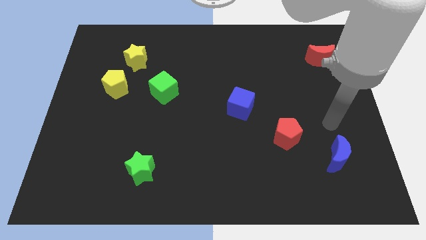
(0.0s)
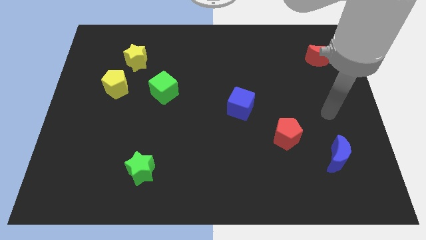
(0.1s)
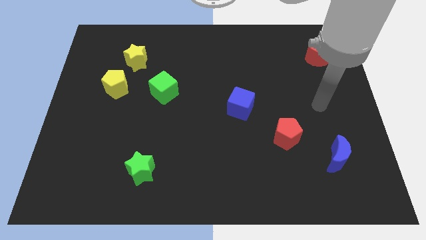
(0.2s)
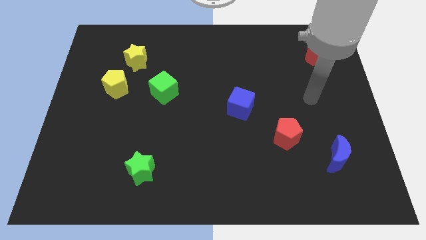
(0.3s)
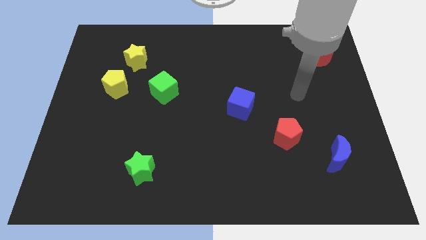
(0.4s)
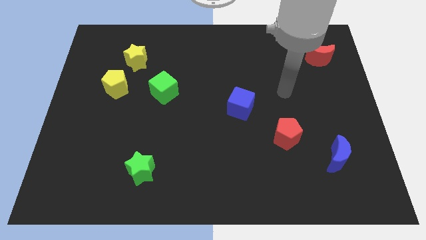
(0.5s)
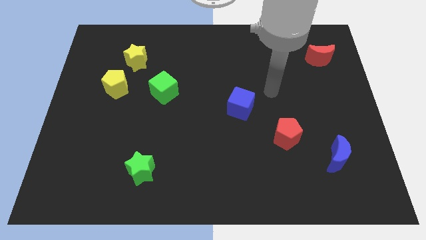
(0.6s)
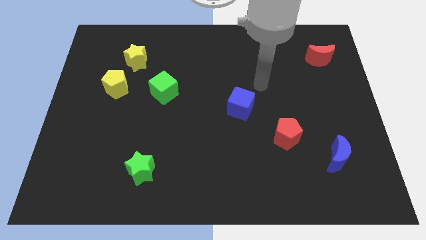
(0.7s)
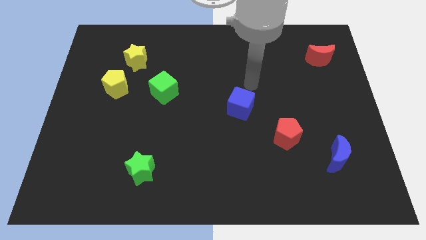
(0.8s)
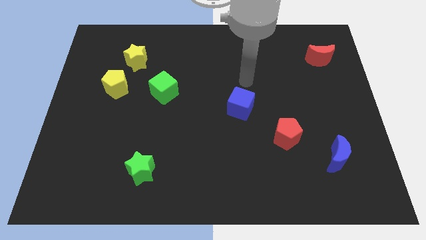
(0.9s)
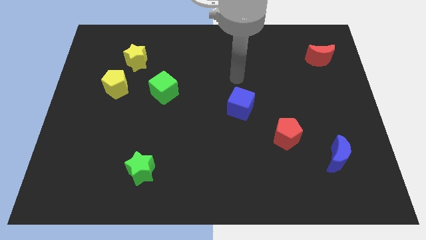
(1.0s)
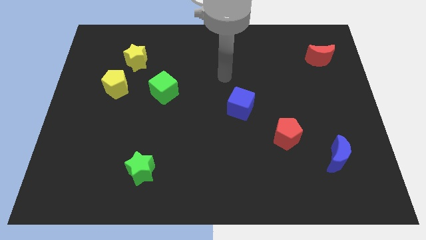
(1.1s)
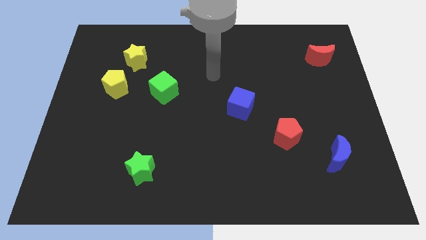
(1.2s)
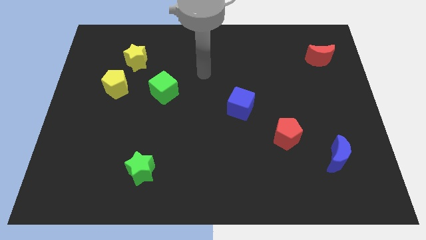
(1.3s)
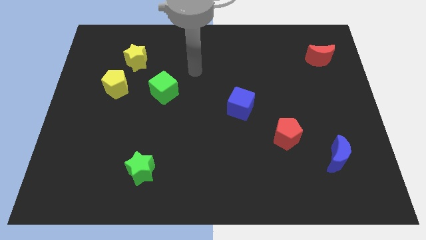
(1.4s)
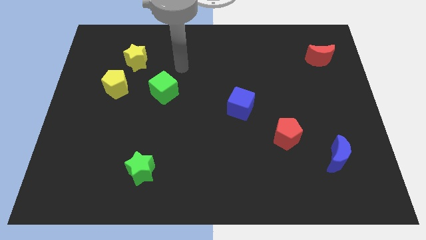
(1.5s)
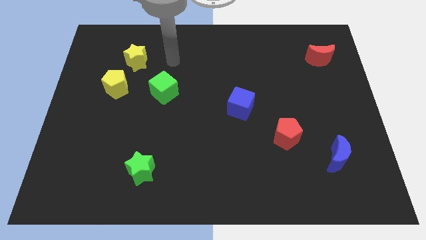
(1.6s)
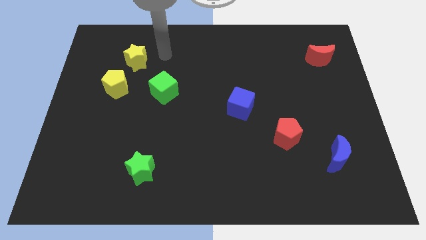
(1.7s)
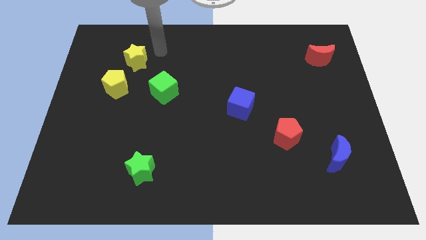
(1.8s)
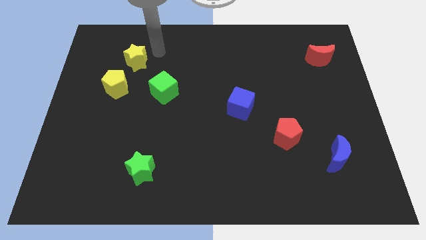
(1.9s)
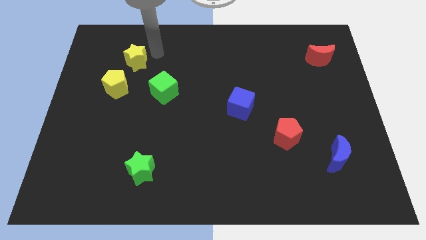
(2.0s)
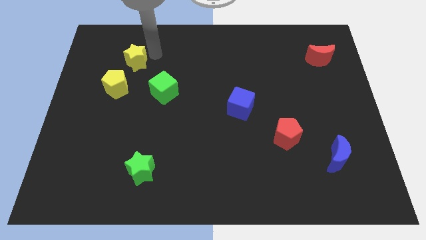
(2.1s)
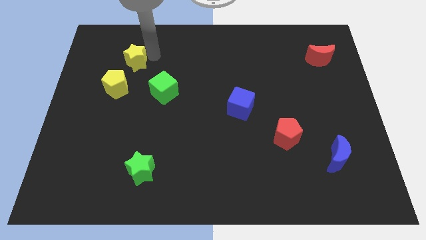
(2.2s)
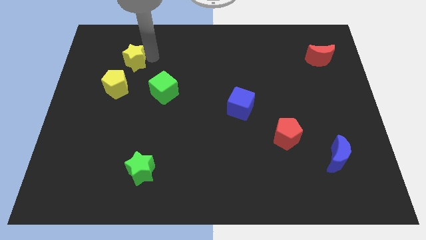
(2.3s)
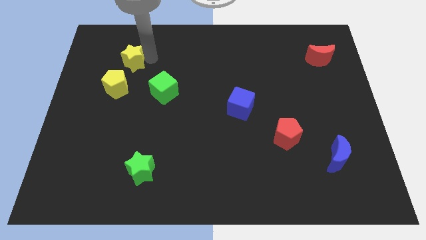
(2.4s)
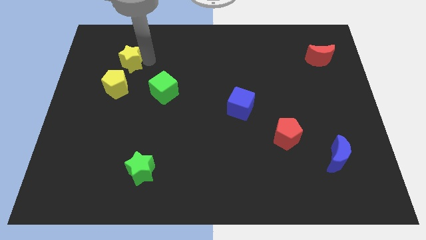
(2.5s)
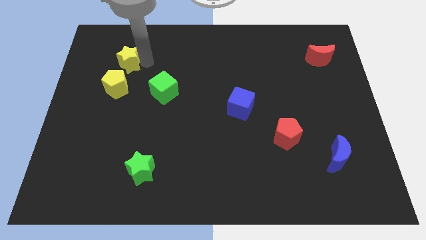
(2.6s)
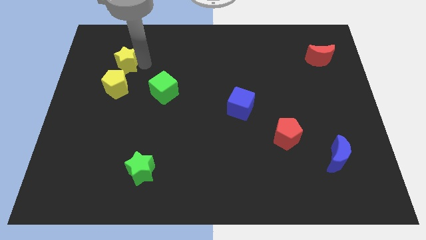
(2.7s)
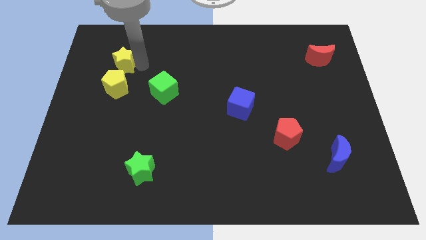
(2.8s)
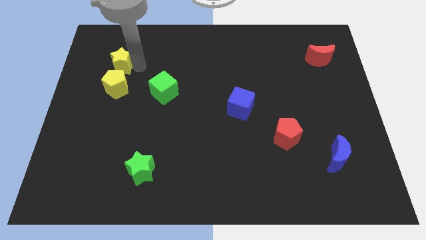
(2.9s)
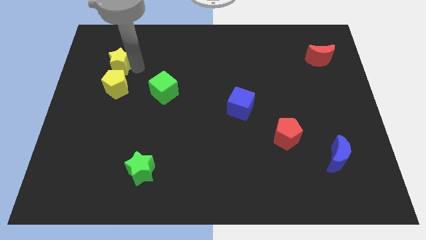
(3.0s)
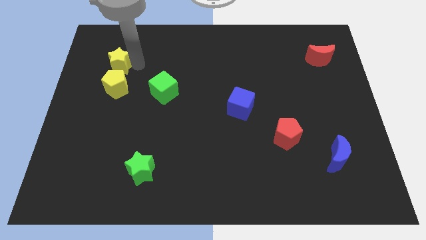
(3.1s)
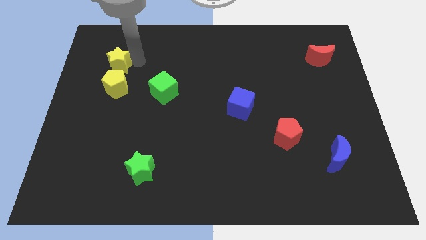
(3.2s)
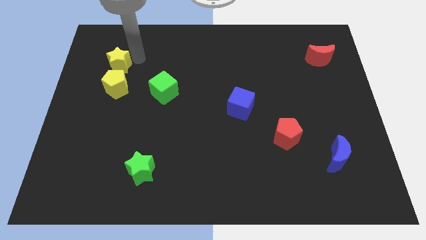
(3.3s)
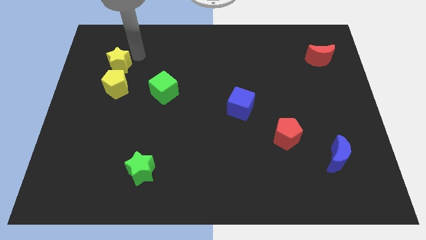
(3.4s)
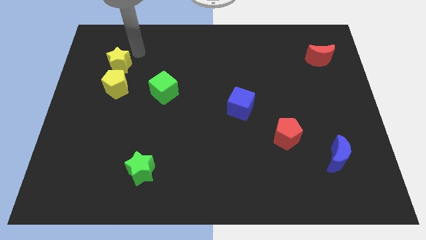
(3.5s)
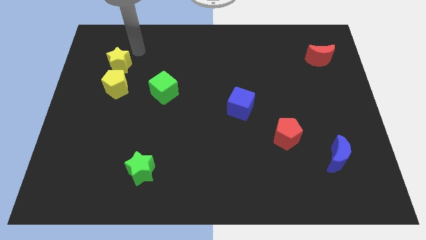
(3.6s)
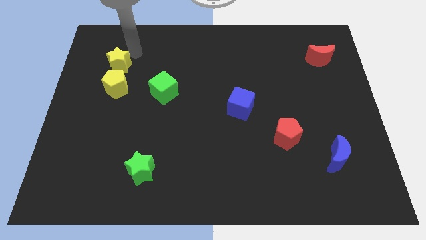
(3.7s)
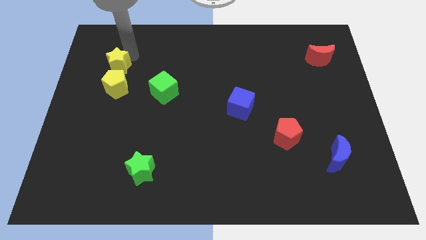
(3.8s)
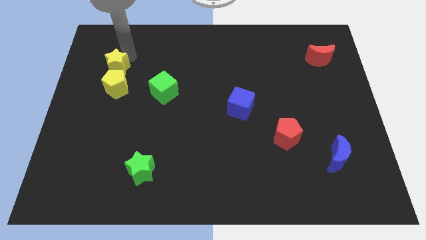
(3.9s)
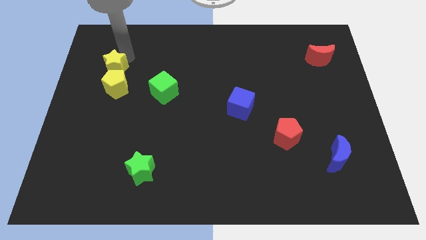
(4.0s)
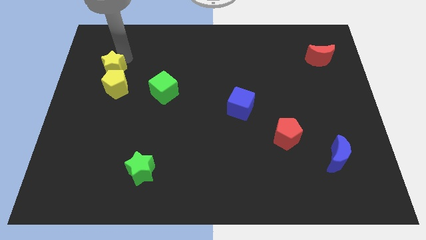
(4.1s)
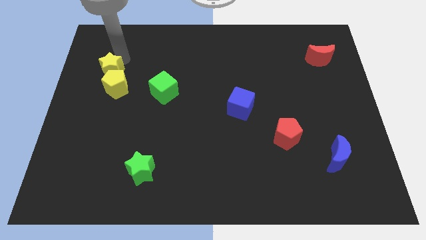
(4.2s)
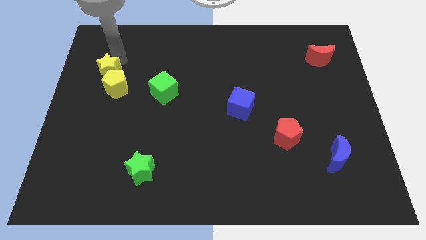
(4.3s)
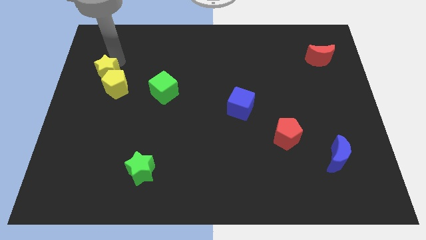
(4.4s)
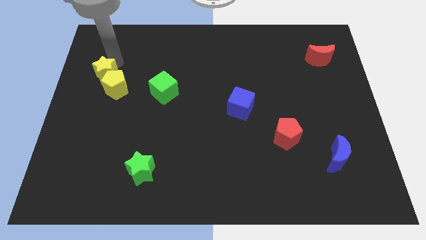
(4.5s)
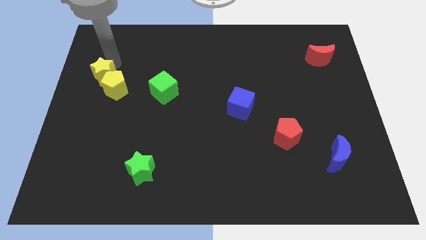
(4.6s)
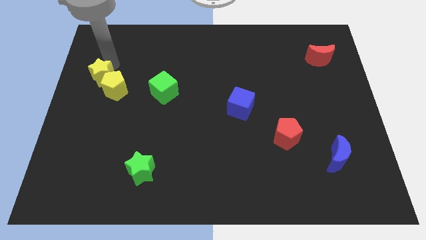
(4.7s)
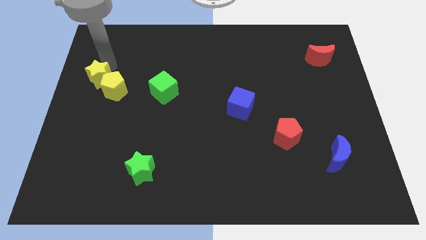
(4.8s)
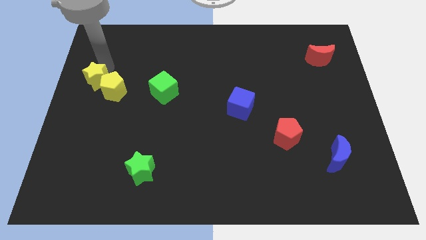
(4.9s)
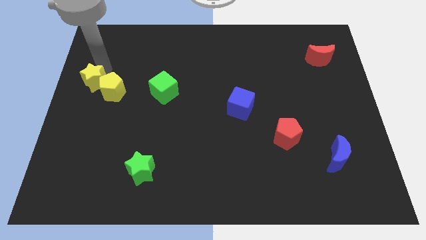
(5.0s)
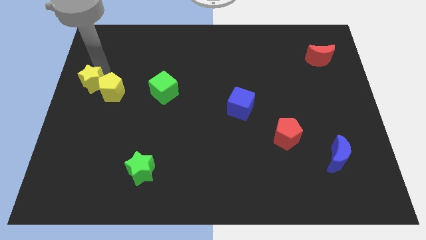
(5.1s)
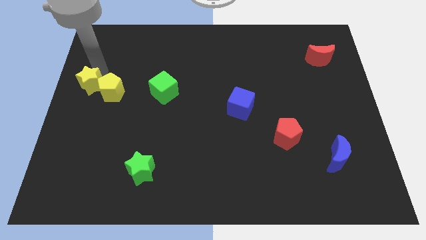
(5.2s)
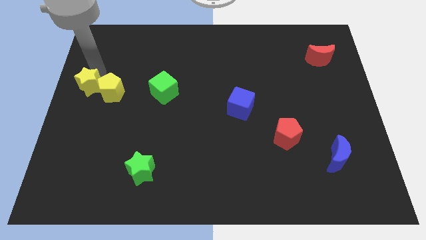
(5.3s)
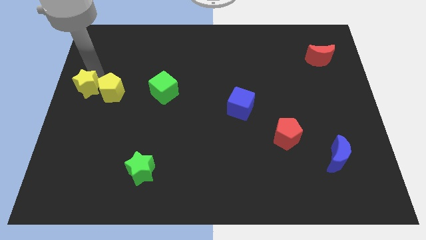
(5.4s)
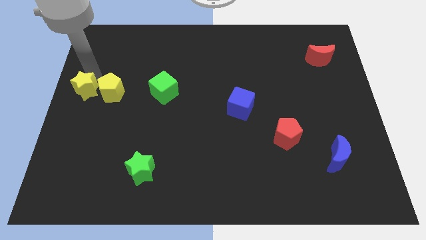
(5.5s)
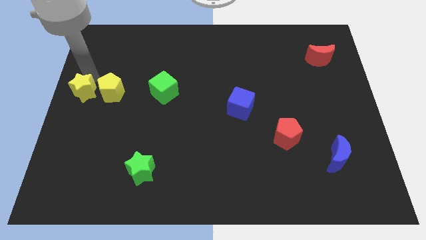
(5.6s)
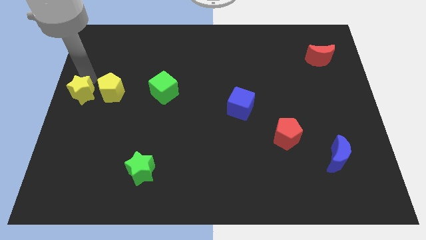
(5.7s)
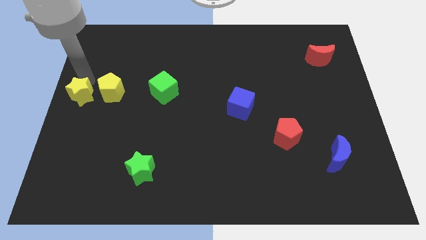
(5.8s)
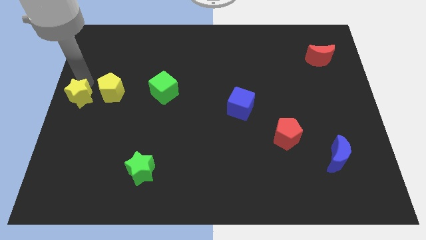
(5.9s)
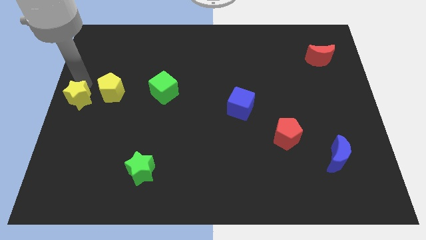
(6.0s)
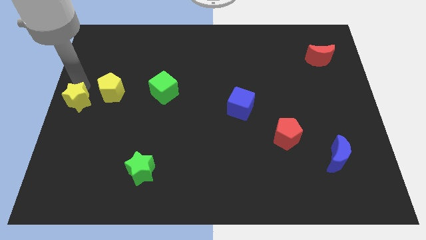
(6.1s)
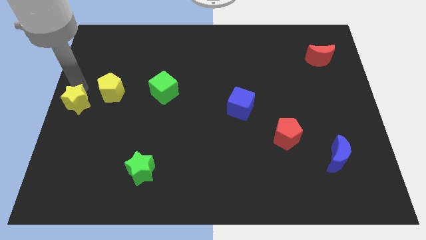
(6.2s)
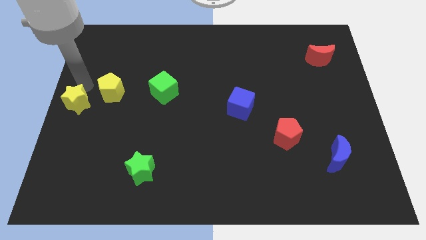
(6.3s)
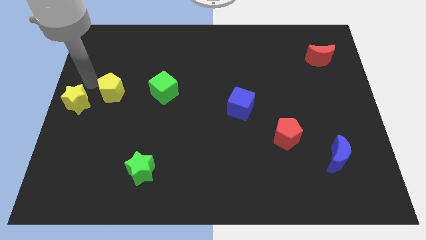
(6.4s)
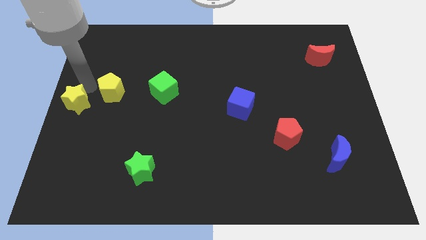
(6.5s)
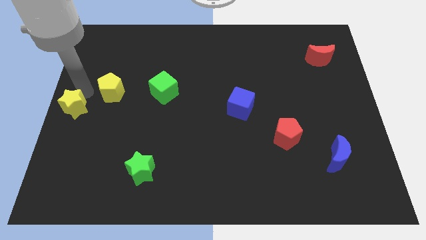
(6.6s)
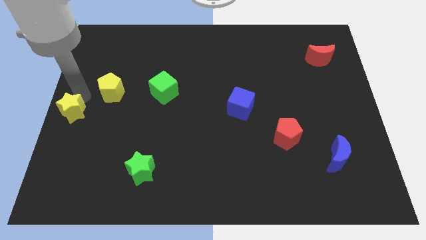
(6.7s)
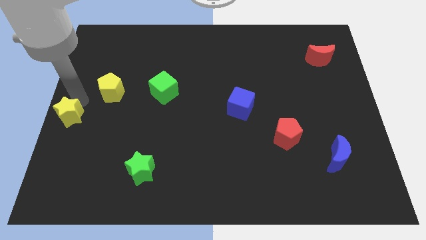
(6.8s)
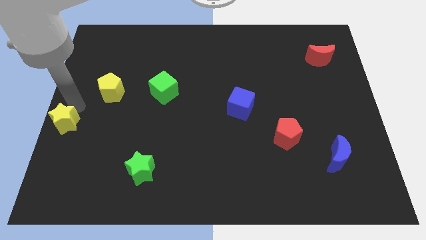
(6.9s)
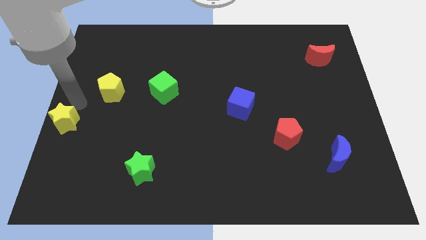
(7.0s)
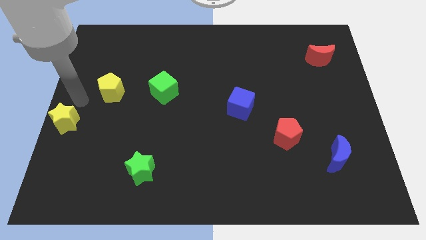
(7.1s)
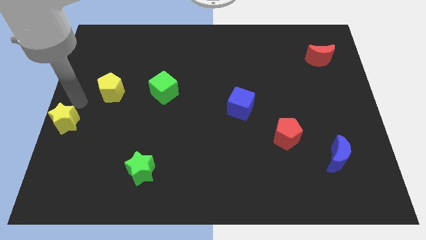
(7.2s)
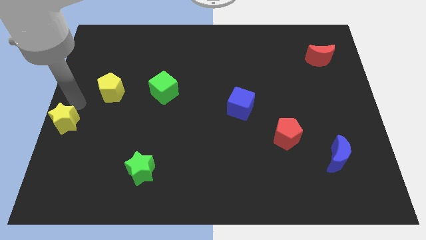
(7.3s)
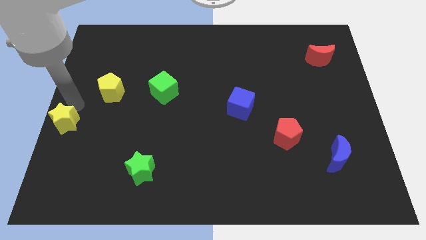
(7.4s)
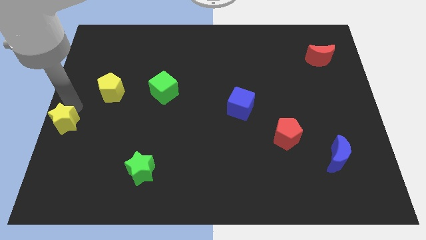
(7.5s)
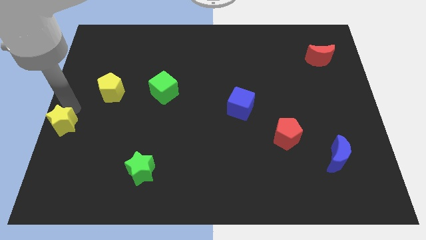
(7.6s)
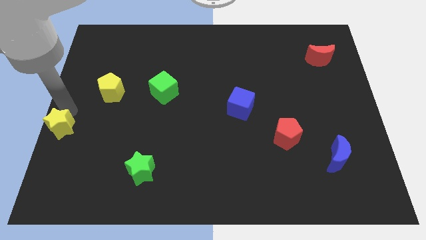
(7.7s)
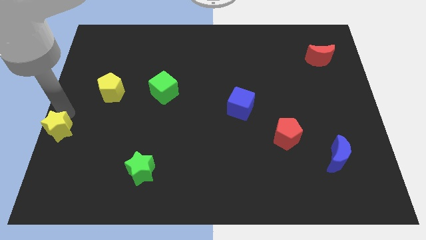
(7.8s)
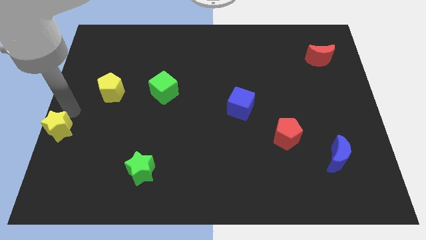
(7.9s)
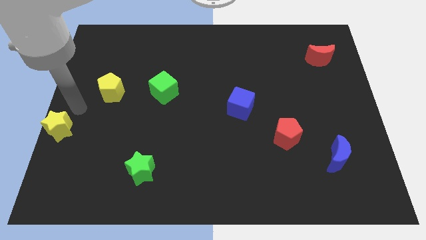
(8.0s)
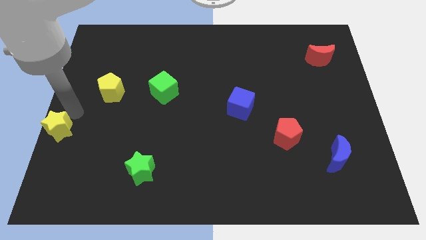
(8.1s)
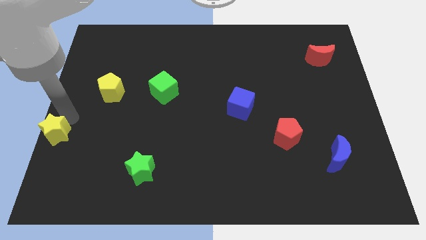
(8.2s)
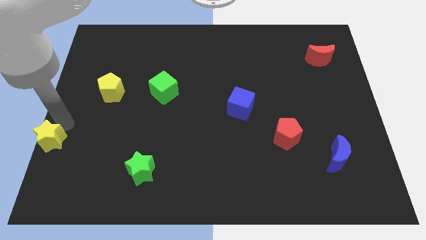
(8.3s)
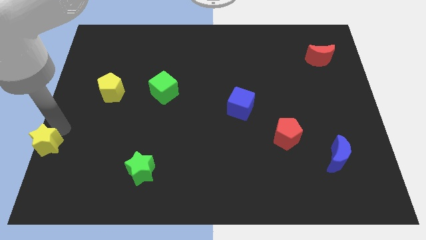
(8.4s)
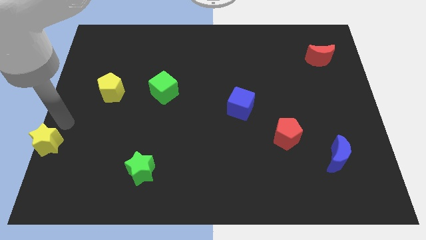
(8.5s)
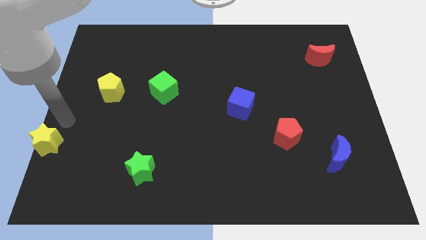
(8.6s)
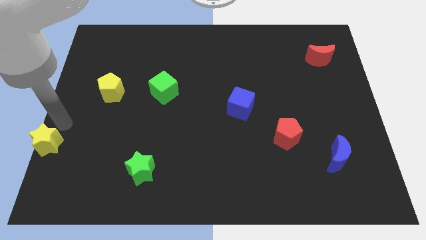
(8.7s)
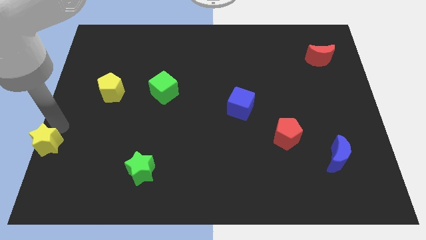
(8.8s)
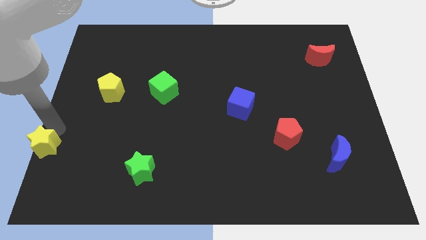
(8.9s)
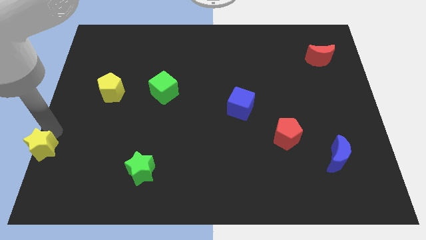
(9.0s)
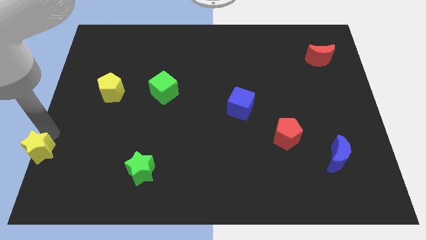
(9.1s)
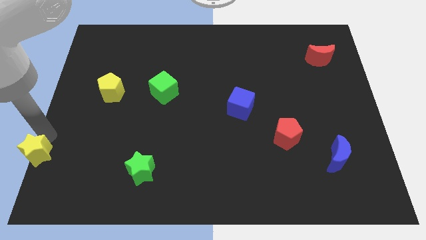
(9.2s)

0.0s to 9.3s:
move the yellow star to the lower left corner
